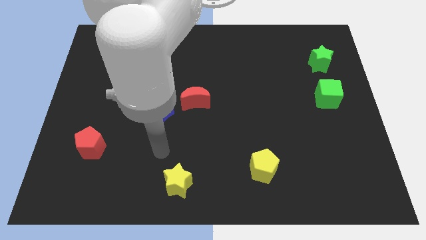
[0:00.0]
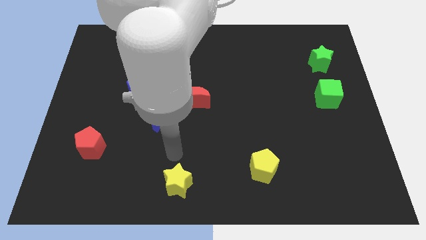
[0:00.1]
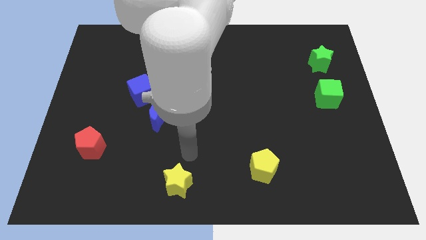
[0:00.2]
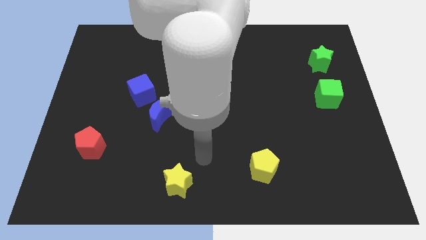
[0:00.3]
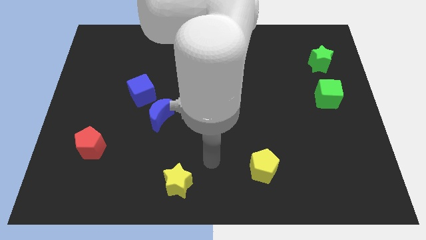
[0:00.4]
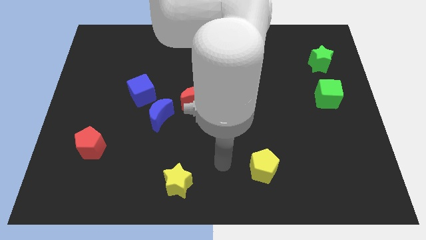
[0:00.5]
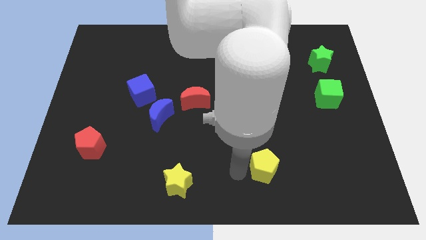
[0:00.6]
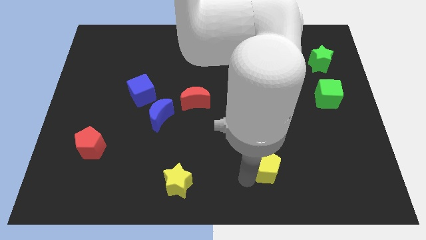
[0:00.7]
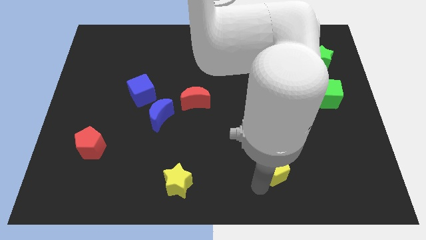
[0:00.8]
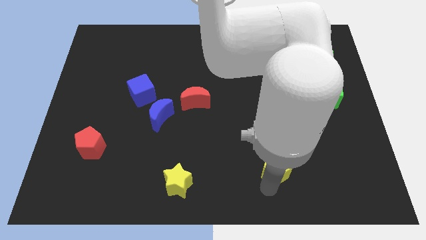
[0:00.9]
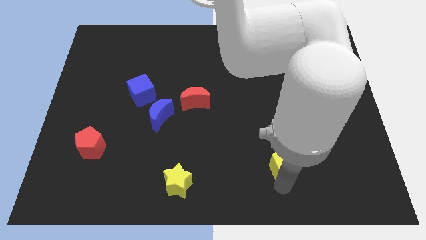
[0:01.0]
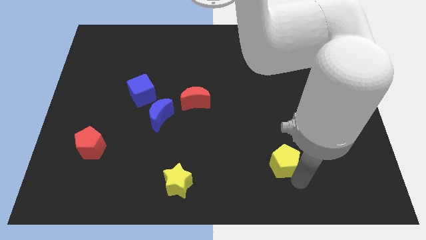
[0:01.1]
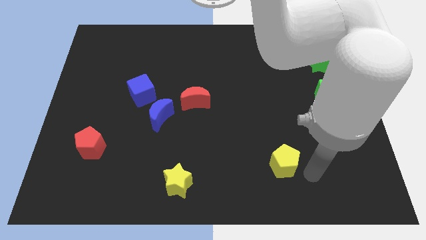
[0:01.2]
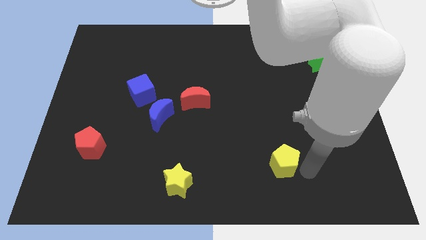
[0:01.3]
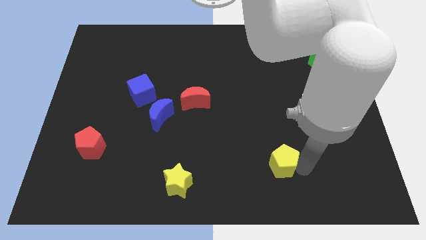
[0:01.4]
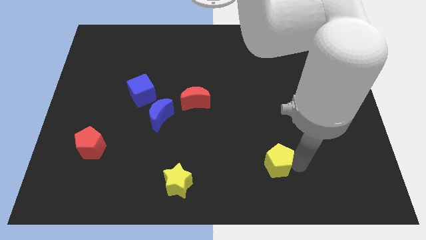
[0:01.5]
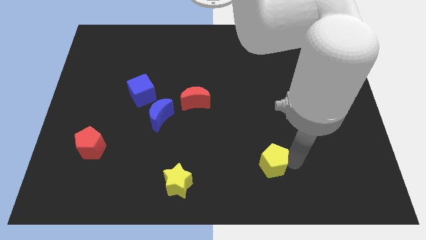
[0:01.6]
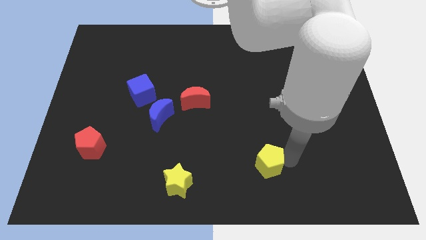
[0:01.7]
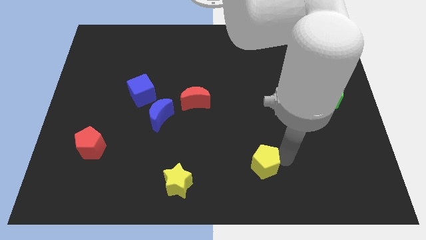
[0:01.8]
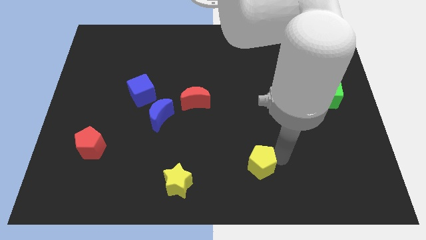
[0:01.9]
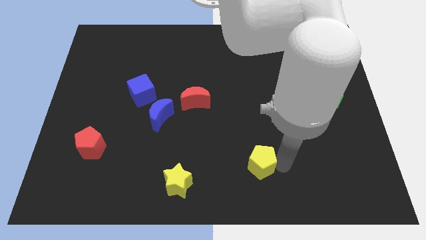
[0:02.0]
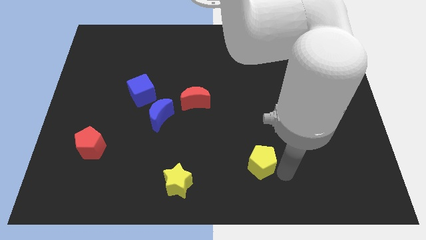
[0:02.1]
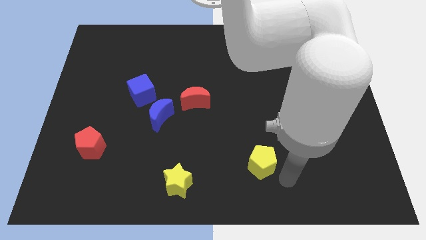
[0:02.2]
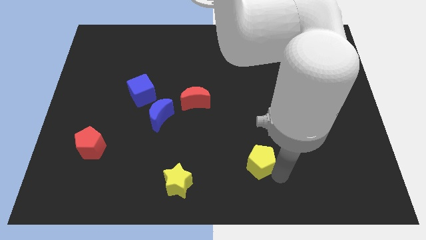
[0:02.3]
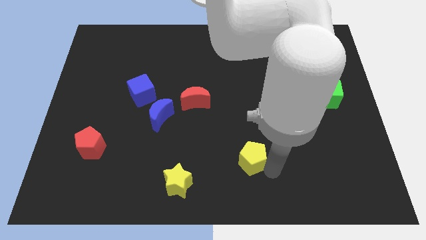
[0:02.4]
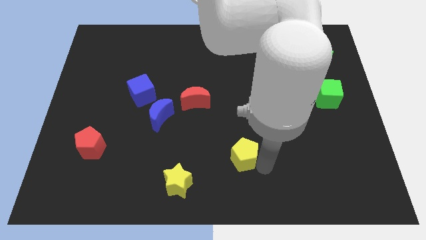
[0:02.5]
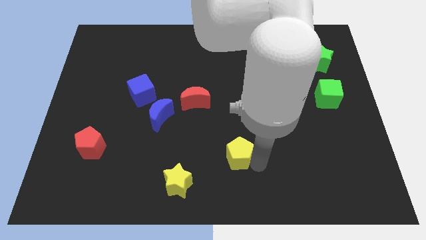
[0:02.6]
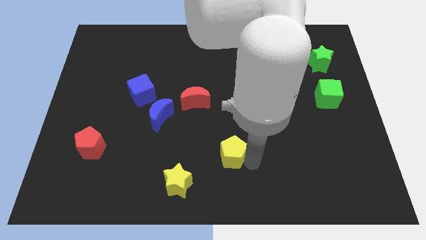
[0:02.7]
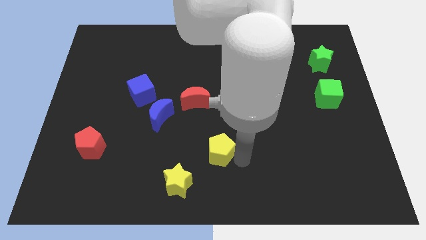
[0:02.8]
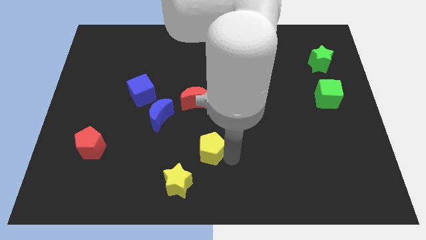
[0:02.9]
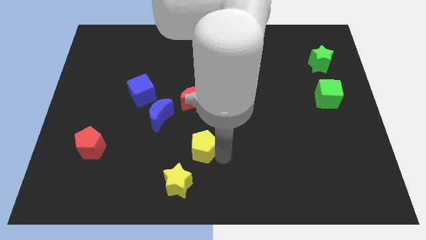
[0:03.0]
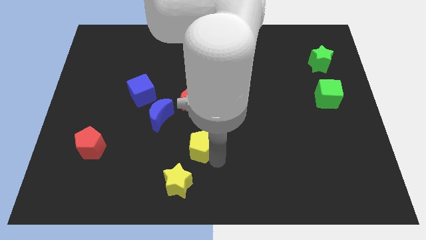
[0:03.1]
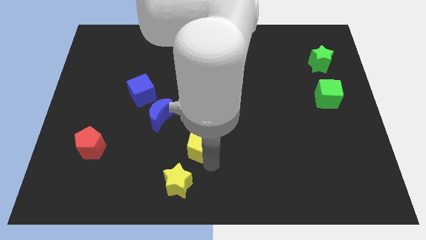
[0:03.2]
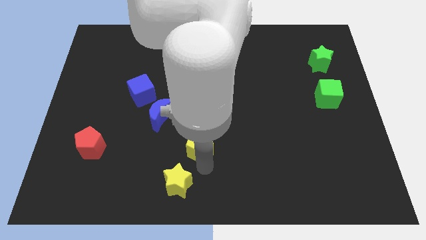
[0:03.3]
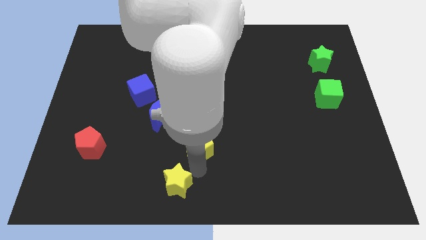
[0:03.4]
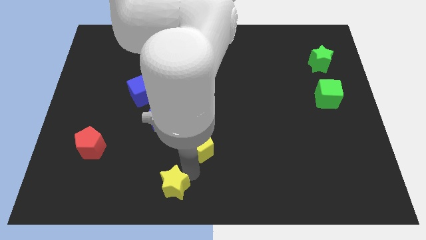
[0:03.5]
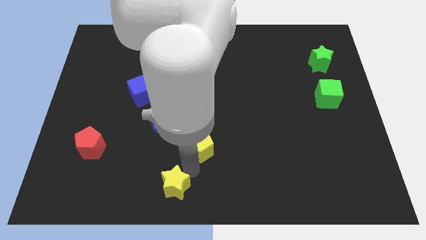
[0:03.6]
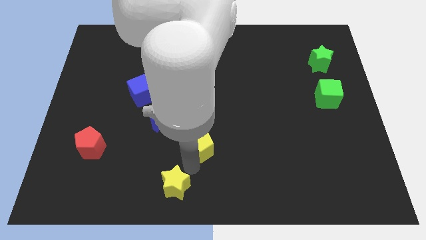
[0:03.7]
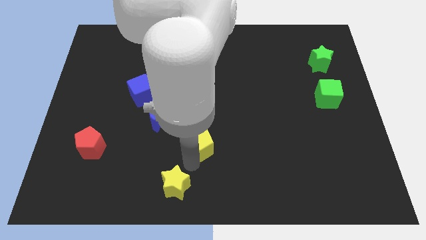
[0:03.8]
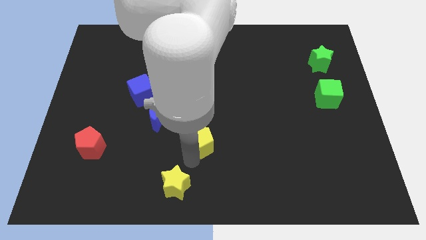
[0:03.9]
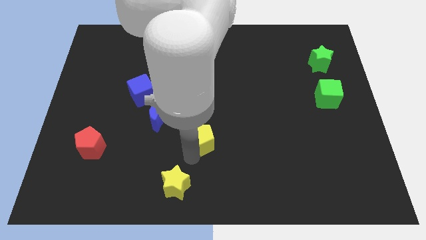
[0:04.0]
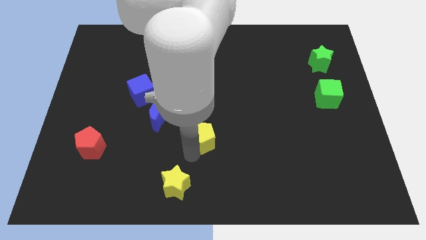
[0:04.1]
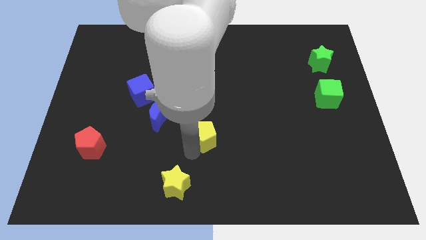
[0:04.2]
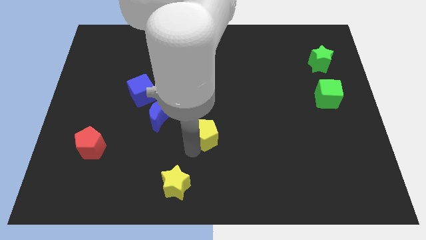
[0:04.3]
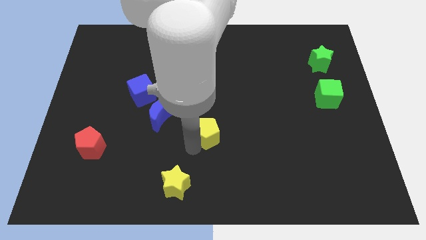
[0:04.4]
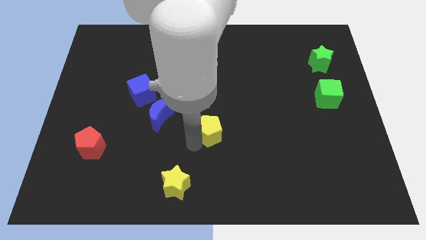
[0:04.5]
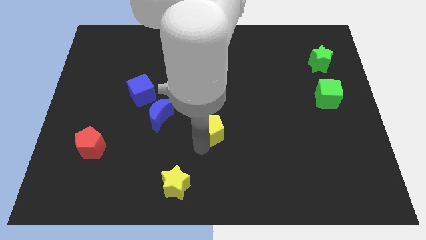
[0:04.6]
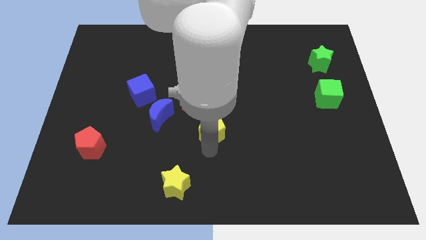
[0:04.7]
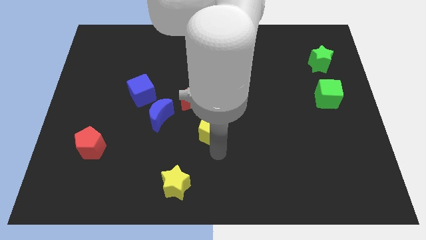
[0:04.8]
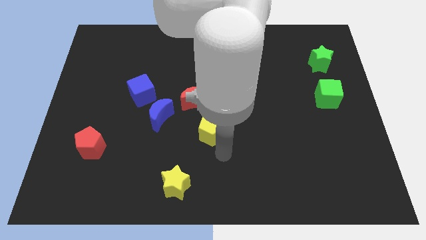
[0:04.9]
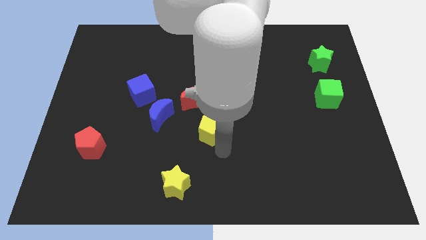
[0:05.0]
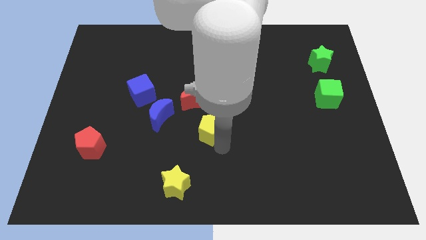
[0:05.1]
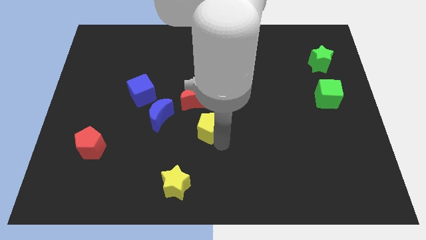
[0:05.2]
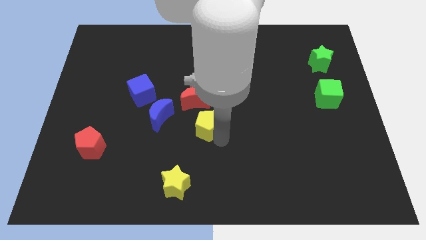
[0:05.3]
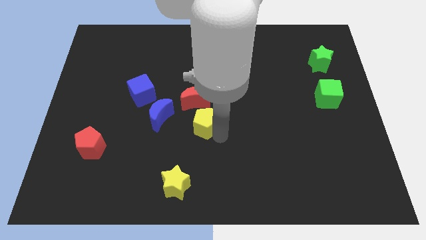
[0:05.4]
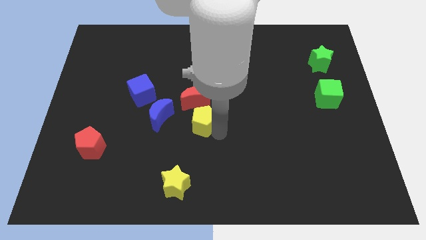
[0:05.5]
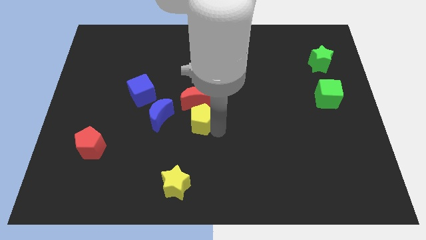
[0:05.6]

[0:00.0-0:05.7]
put the yellow pentagon towards the red moon

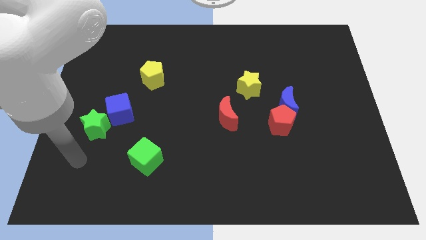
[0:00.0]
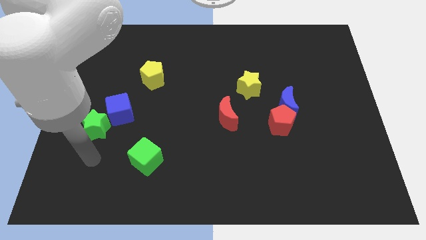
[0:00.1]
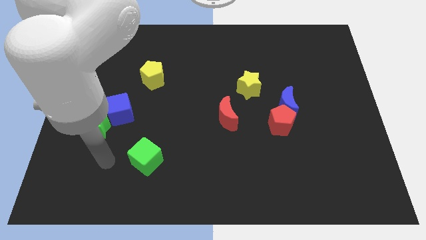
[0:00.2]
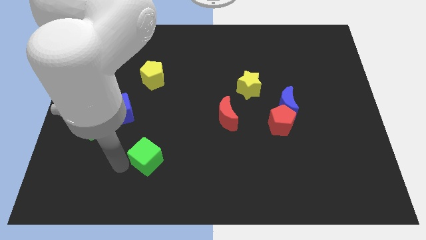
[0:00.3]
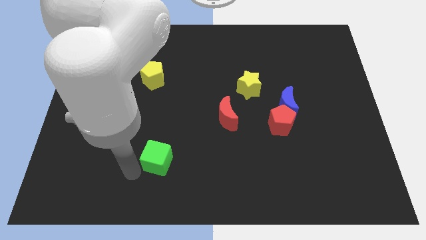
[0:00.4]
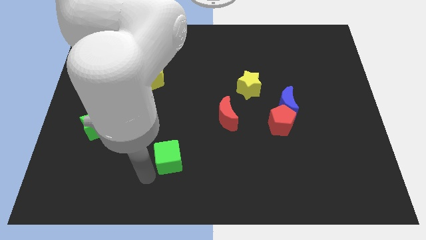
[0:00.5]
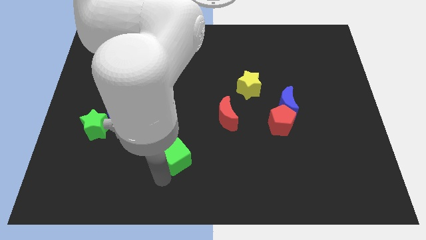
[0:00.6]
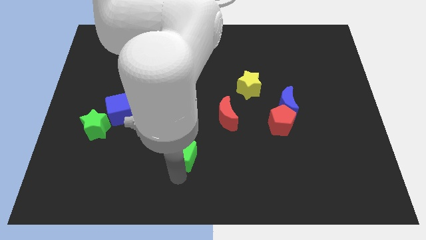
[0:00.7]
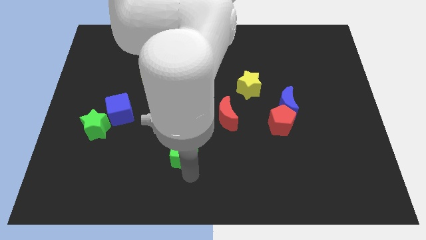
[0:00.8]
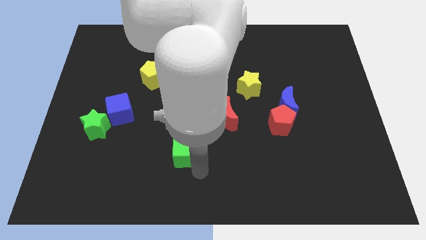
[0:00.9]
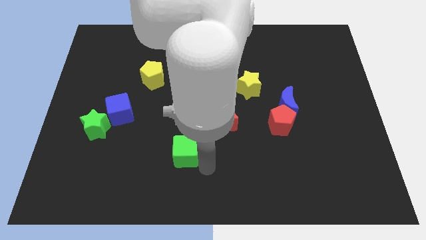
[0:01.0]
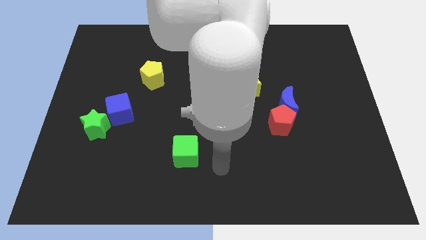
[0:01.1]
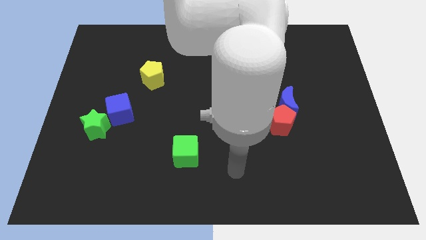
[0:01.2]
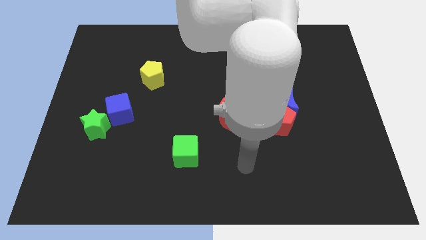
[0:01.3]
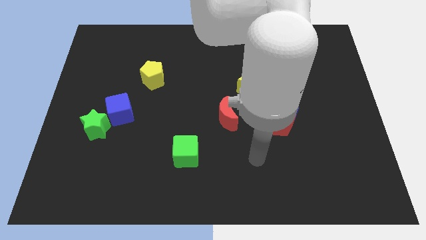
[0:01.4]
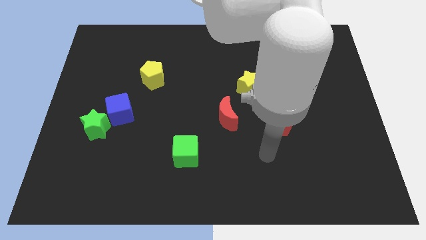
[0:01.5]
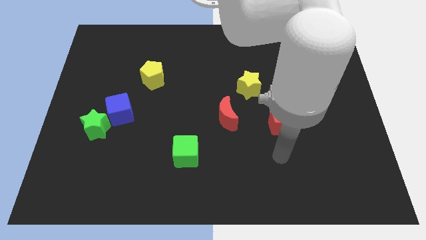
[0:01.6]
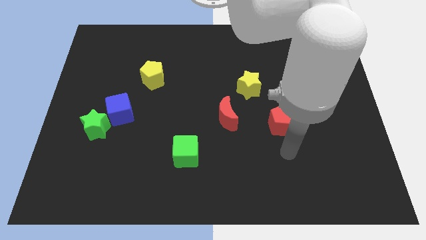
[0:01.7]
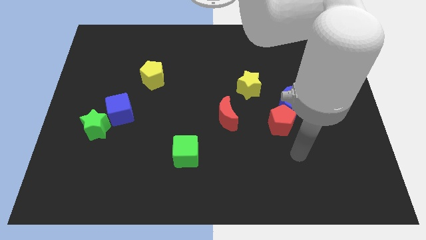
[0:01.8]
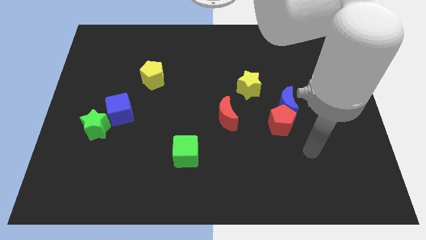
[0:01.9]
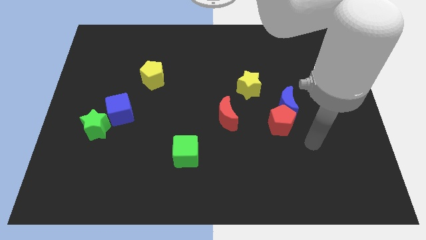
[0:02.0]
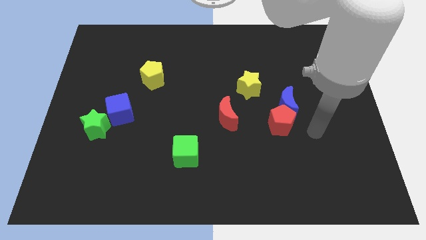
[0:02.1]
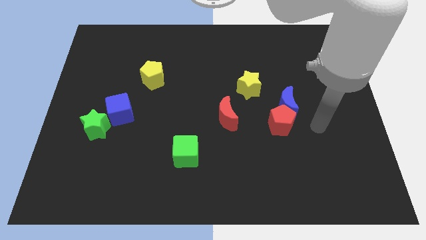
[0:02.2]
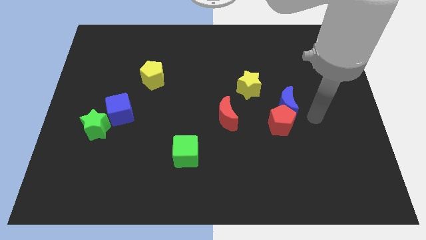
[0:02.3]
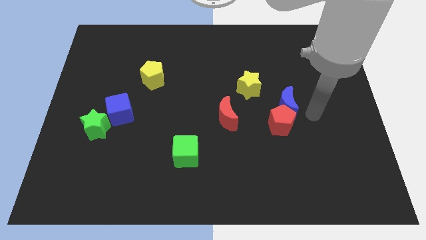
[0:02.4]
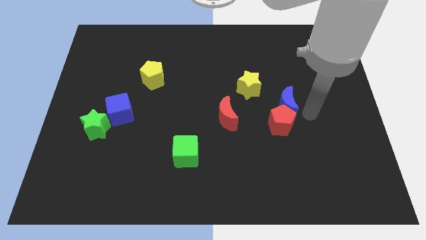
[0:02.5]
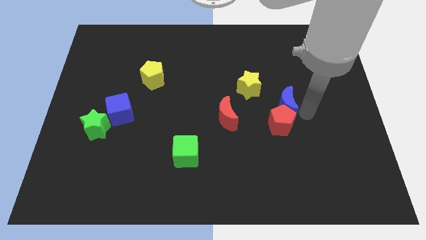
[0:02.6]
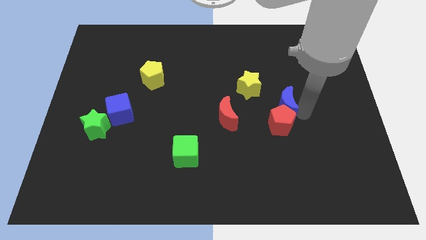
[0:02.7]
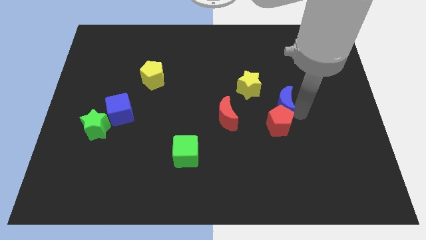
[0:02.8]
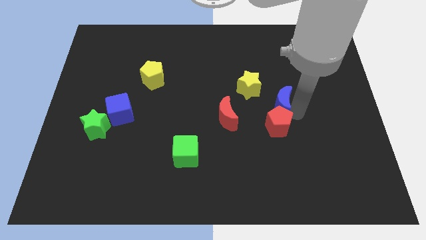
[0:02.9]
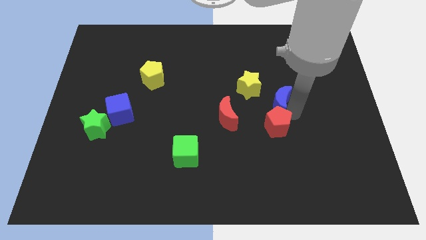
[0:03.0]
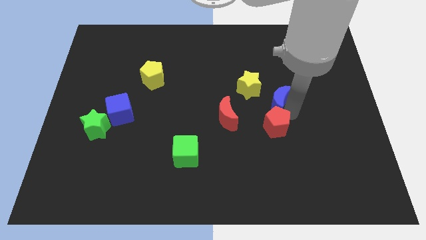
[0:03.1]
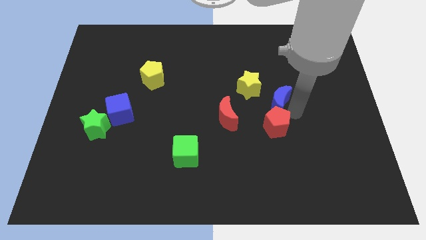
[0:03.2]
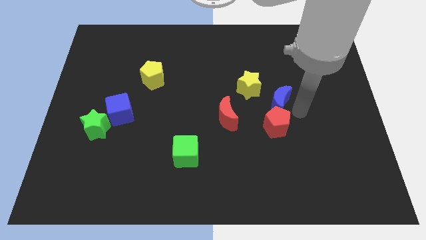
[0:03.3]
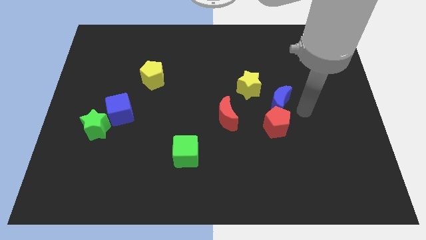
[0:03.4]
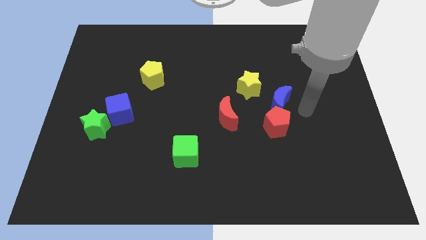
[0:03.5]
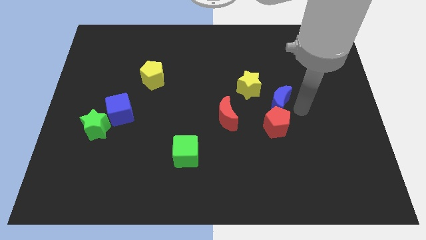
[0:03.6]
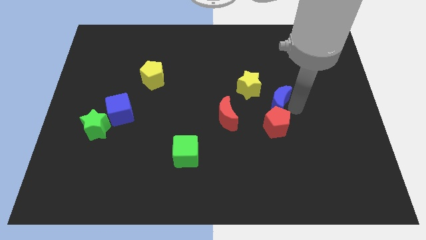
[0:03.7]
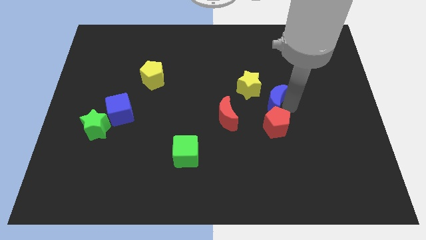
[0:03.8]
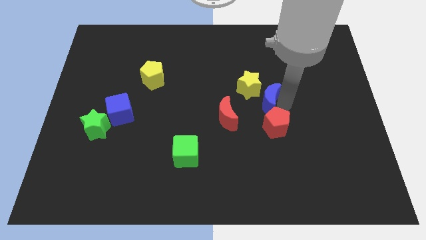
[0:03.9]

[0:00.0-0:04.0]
push the blue moon to the yellow star
